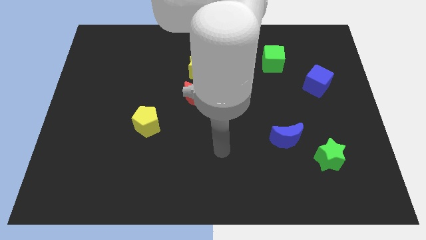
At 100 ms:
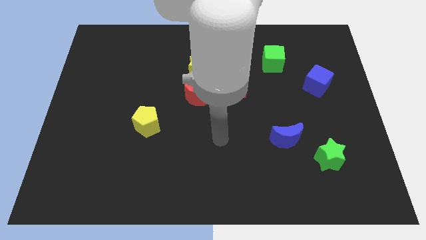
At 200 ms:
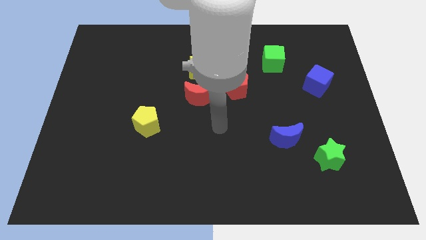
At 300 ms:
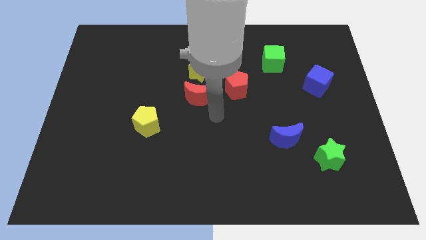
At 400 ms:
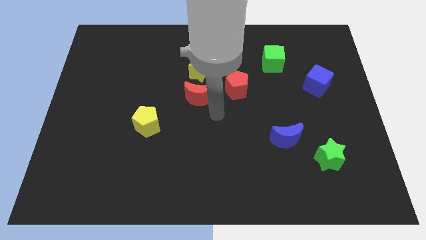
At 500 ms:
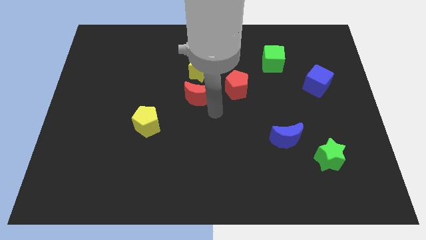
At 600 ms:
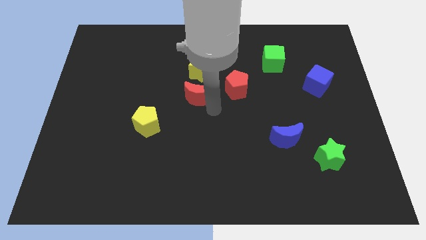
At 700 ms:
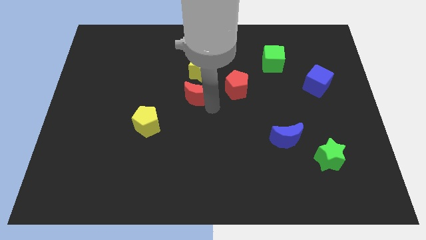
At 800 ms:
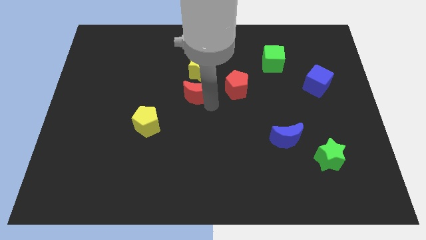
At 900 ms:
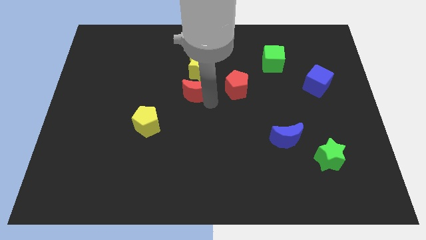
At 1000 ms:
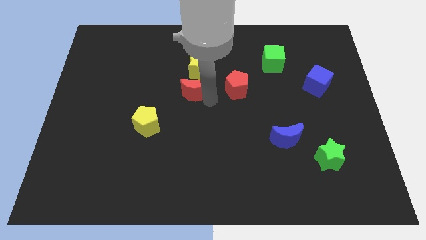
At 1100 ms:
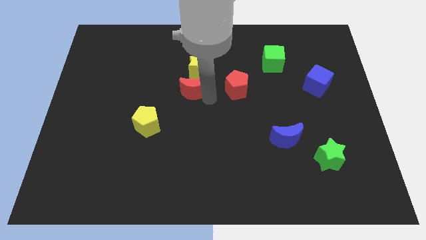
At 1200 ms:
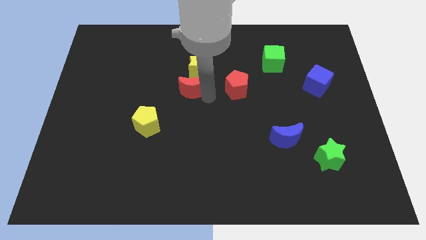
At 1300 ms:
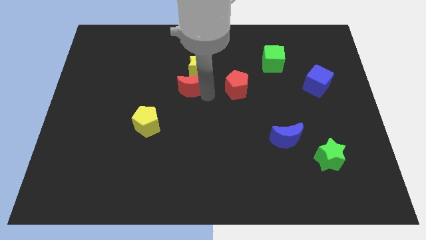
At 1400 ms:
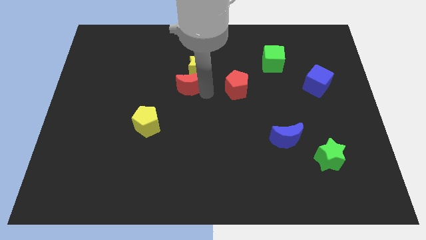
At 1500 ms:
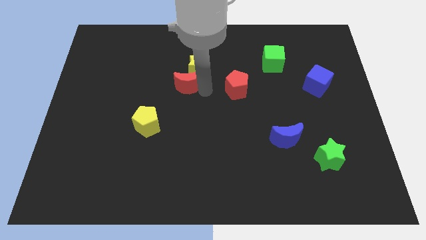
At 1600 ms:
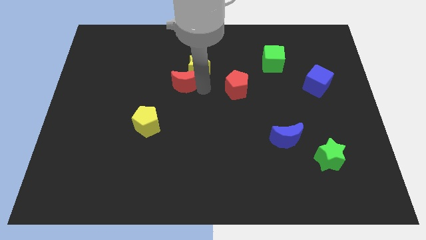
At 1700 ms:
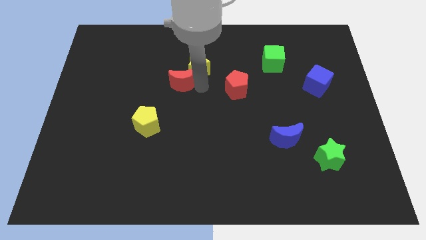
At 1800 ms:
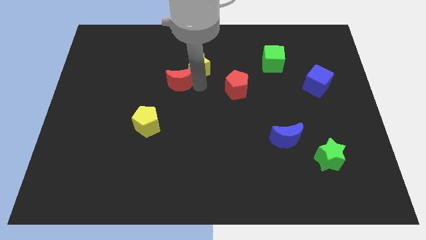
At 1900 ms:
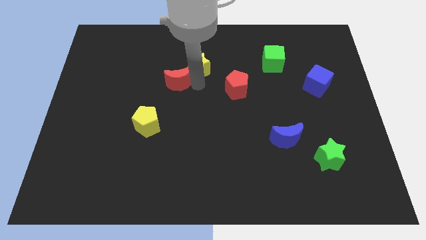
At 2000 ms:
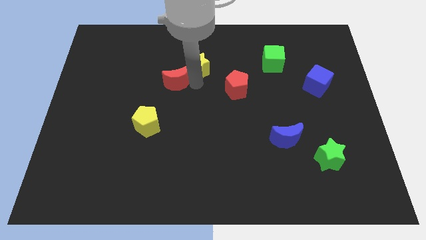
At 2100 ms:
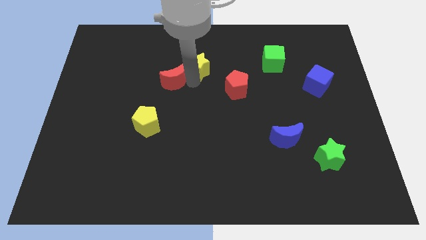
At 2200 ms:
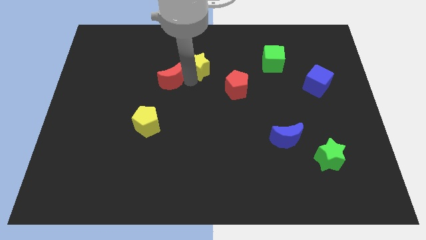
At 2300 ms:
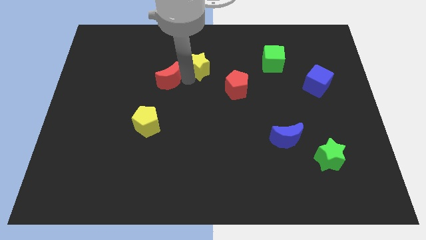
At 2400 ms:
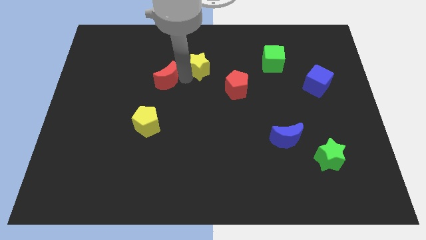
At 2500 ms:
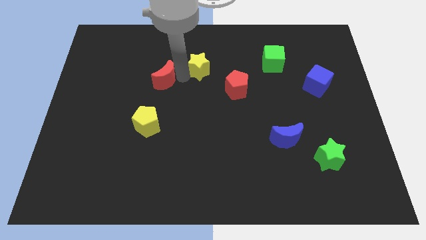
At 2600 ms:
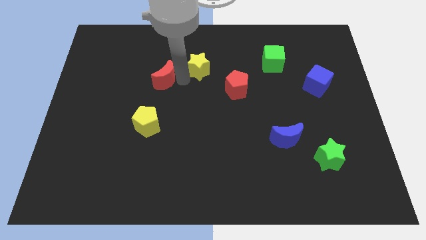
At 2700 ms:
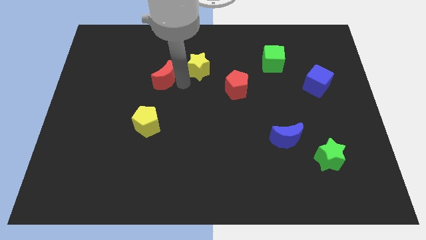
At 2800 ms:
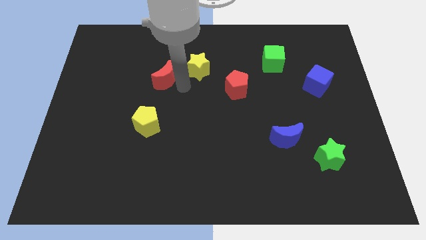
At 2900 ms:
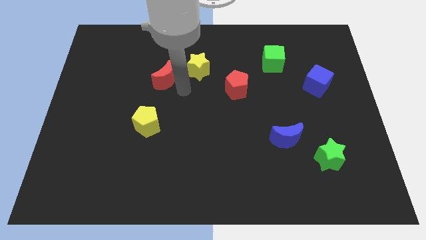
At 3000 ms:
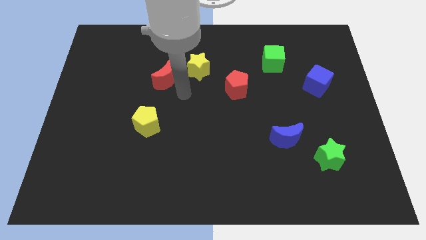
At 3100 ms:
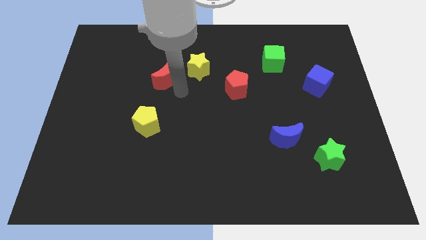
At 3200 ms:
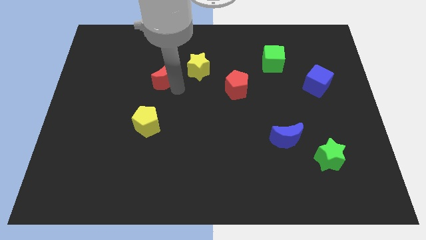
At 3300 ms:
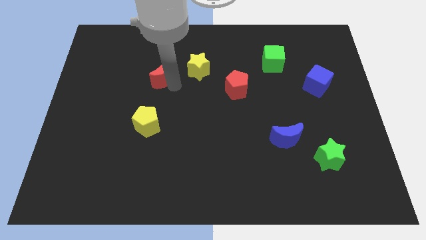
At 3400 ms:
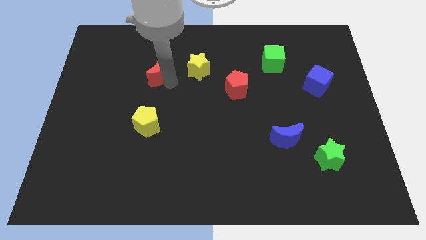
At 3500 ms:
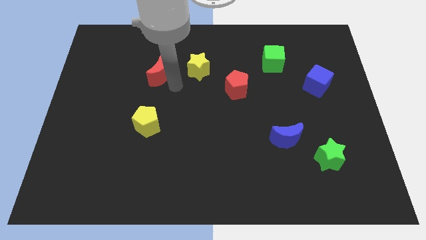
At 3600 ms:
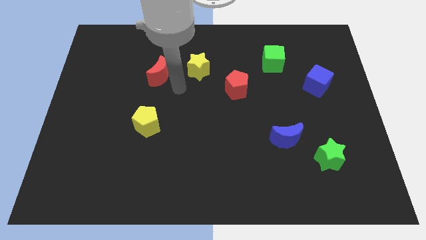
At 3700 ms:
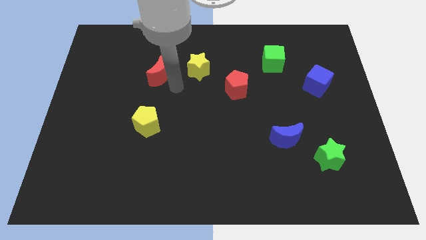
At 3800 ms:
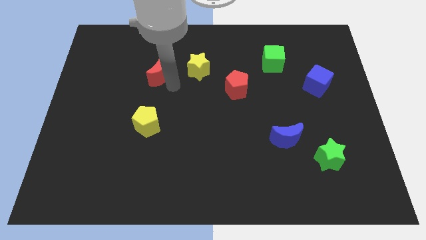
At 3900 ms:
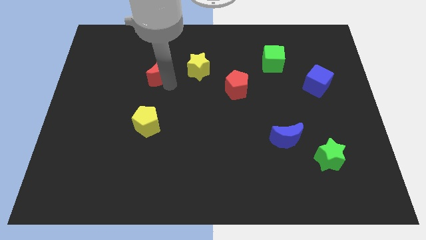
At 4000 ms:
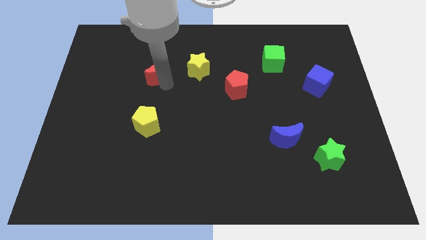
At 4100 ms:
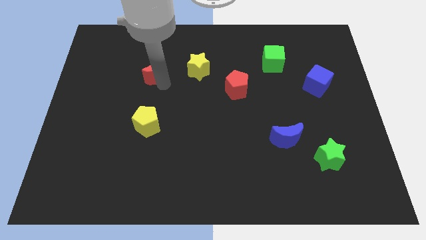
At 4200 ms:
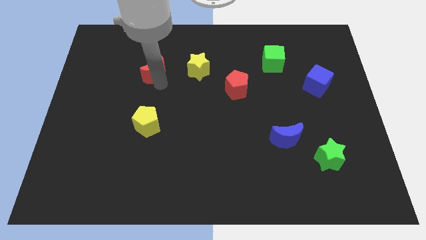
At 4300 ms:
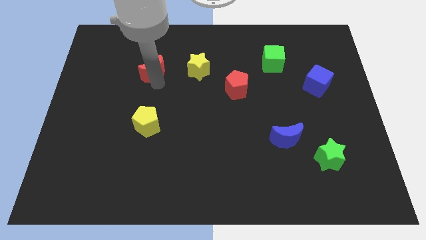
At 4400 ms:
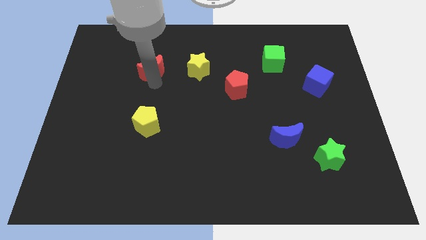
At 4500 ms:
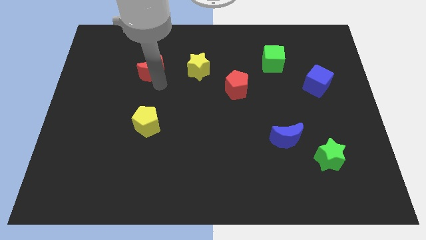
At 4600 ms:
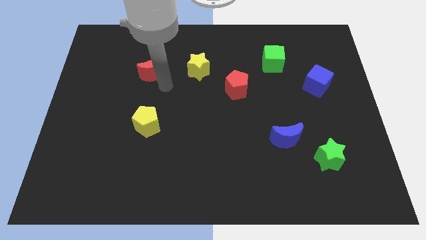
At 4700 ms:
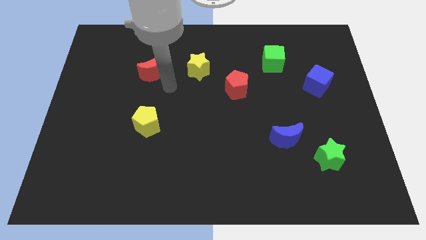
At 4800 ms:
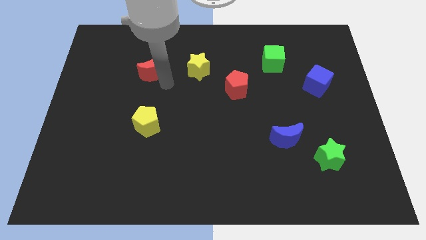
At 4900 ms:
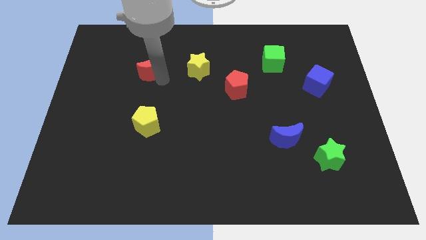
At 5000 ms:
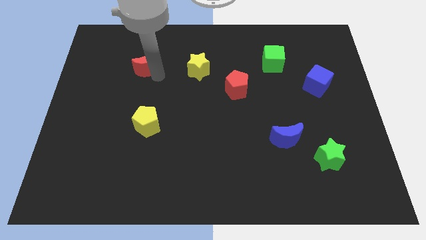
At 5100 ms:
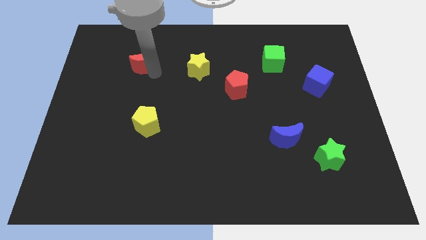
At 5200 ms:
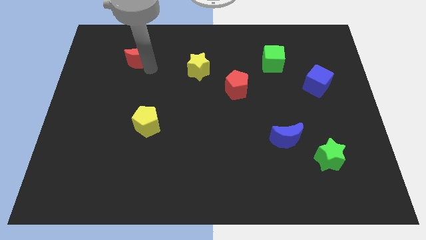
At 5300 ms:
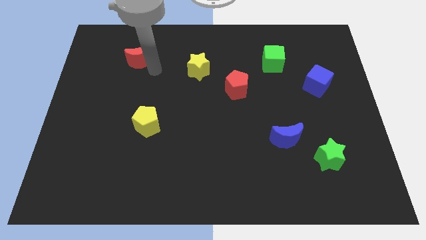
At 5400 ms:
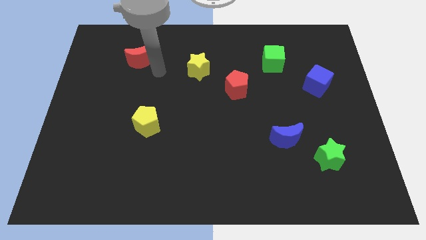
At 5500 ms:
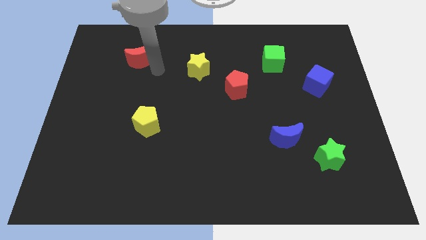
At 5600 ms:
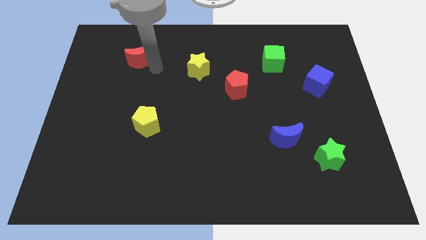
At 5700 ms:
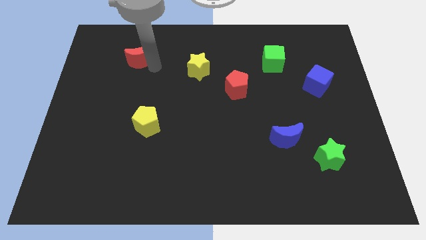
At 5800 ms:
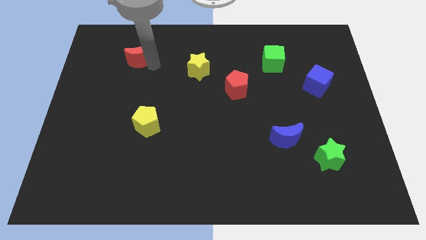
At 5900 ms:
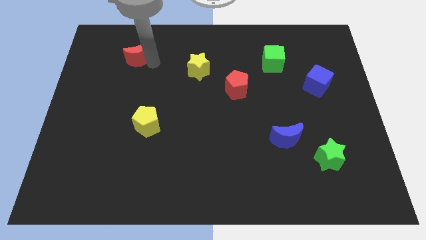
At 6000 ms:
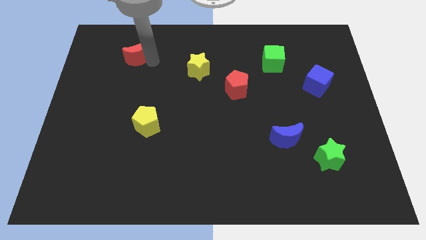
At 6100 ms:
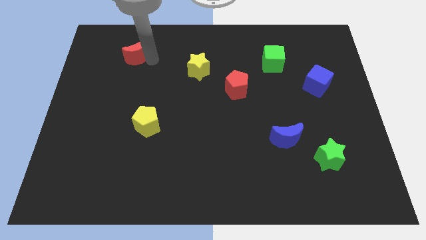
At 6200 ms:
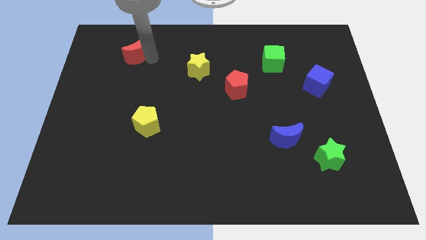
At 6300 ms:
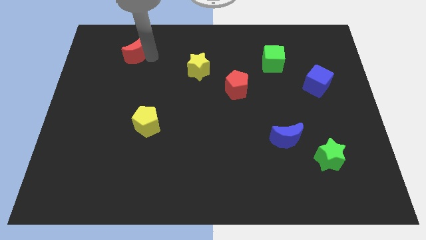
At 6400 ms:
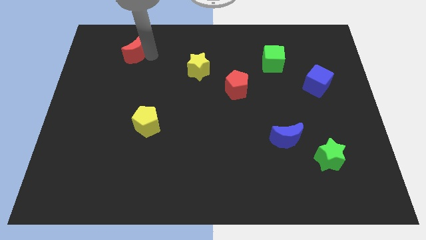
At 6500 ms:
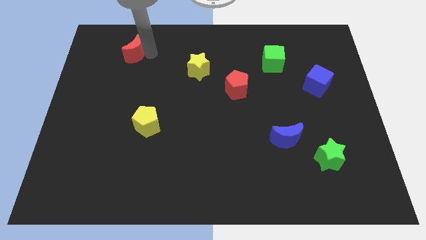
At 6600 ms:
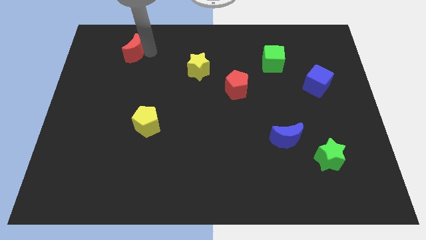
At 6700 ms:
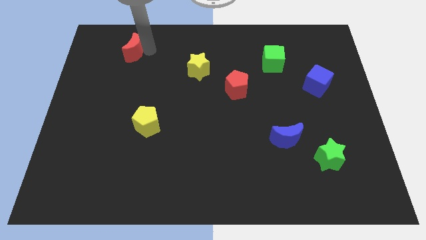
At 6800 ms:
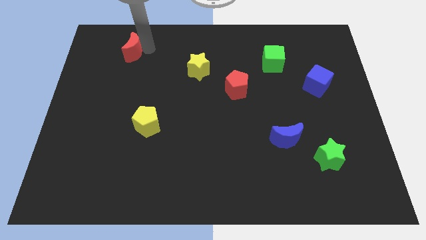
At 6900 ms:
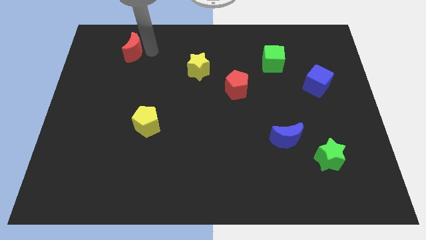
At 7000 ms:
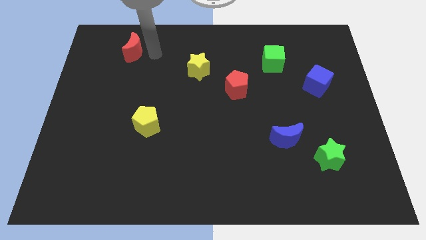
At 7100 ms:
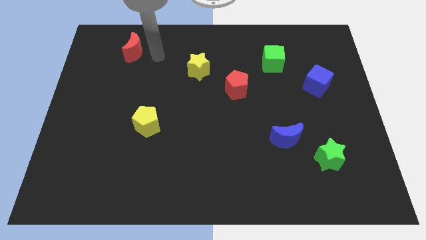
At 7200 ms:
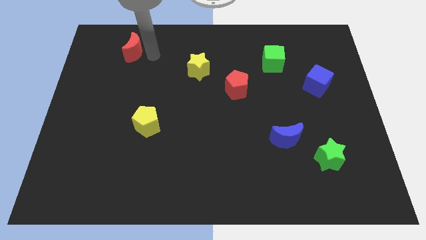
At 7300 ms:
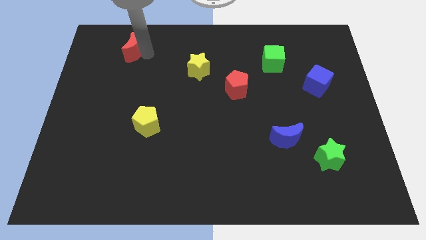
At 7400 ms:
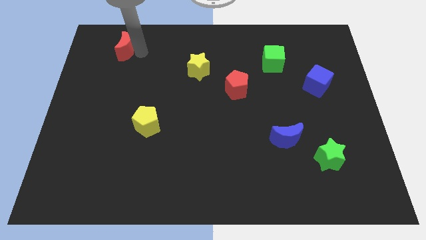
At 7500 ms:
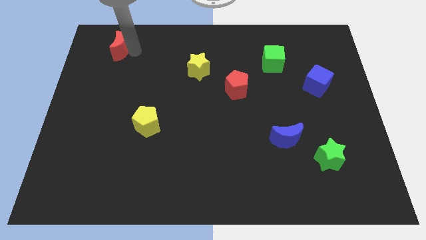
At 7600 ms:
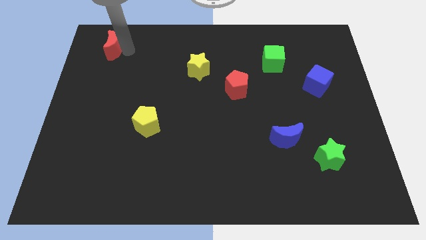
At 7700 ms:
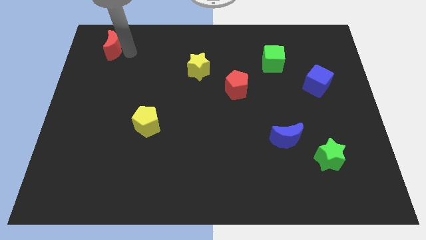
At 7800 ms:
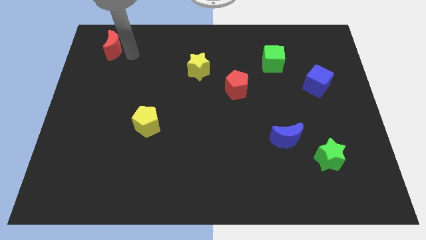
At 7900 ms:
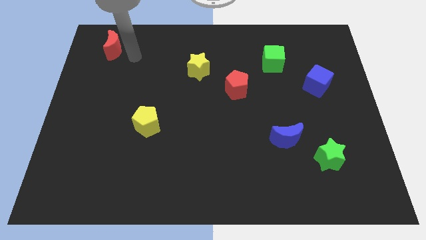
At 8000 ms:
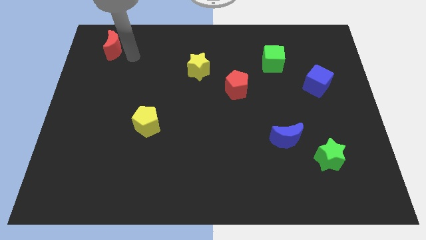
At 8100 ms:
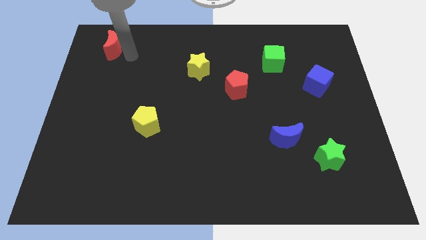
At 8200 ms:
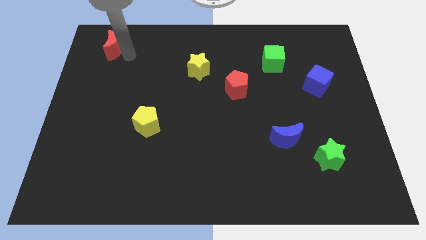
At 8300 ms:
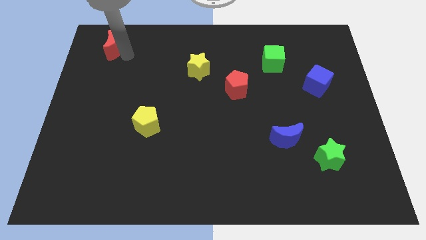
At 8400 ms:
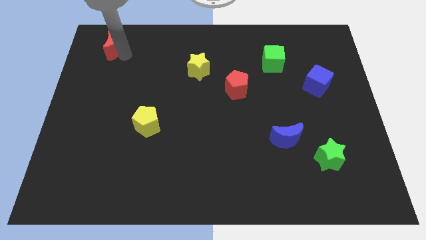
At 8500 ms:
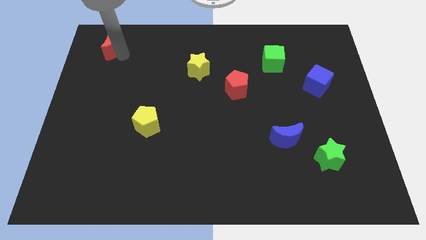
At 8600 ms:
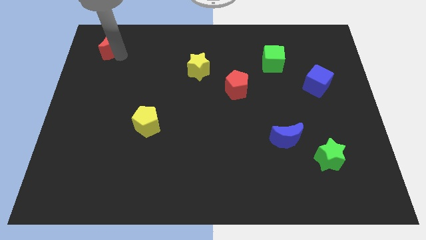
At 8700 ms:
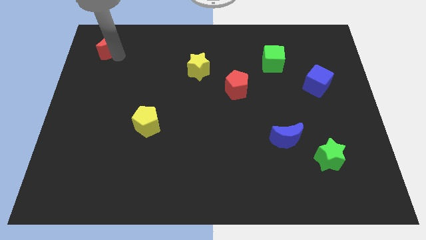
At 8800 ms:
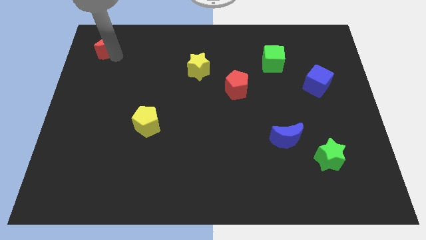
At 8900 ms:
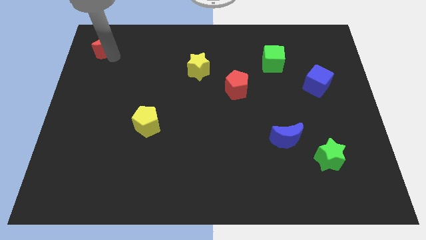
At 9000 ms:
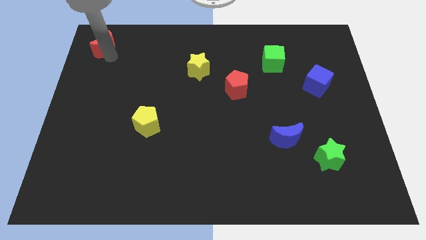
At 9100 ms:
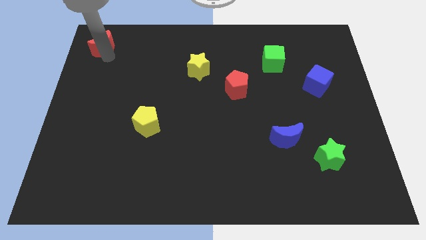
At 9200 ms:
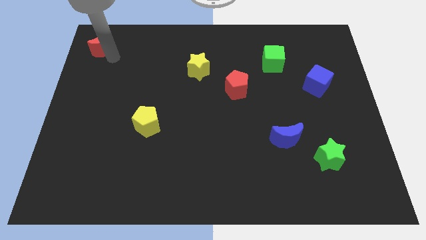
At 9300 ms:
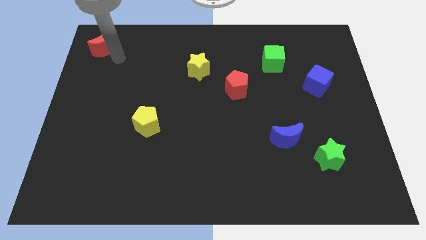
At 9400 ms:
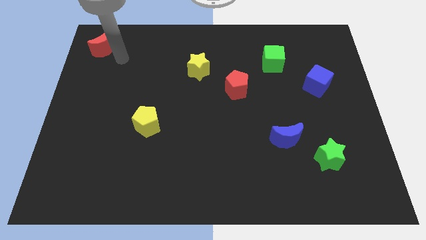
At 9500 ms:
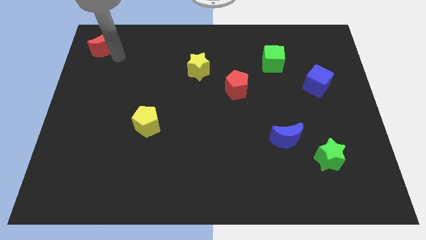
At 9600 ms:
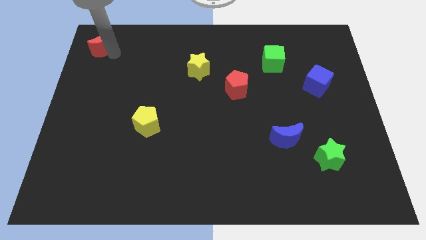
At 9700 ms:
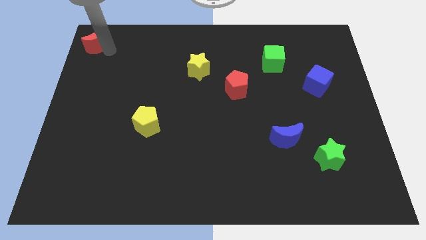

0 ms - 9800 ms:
slide the red moon to the top left
